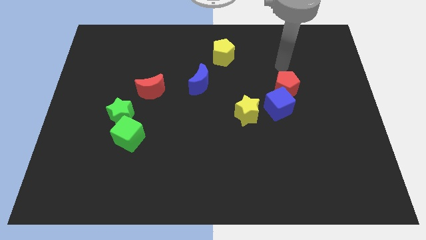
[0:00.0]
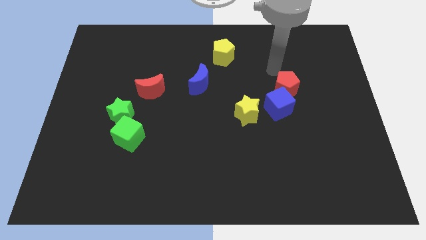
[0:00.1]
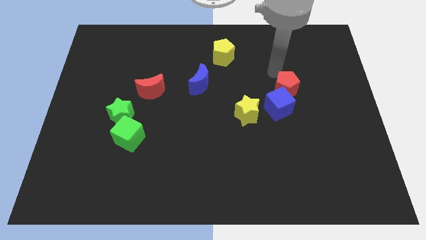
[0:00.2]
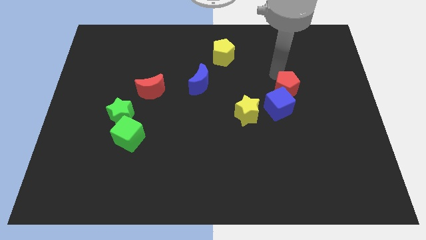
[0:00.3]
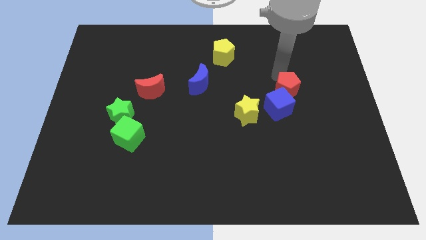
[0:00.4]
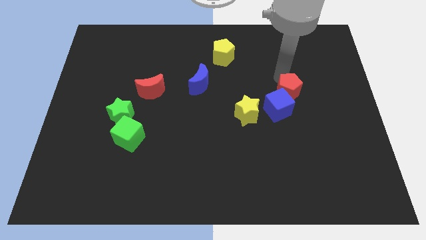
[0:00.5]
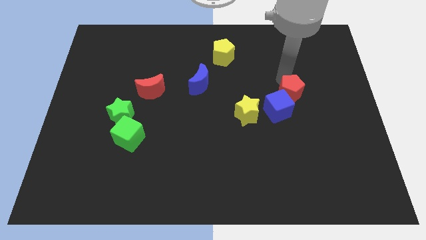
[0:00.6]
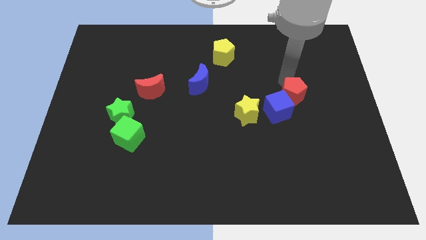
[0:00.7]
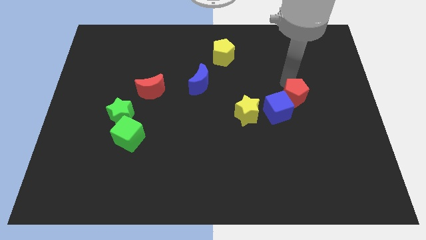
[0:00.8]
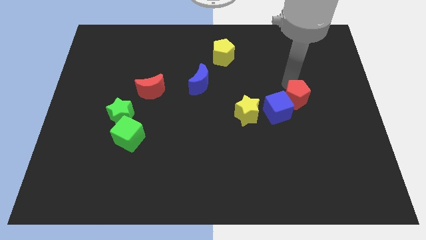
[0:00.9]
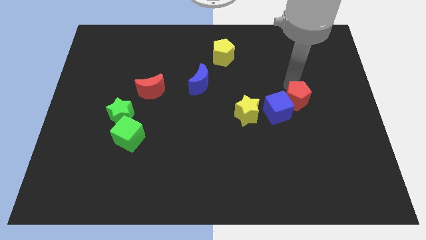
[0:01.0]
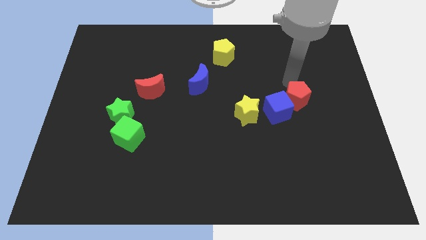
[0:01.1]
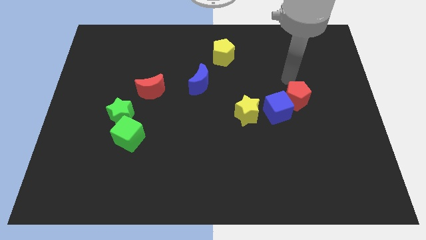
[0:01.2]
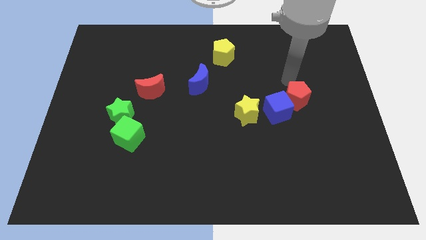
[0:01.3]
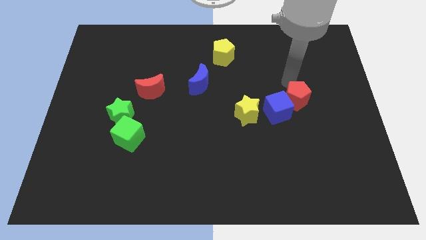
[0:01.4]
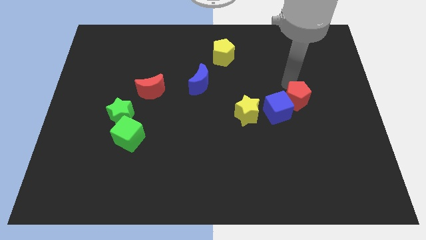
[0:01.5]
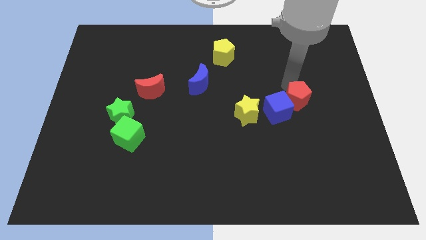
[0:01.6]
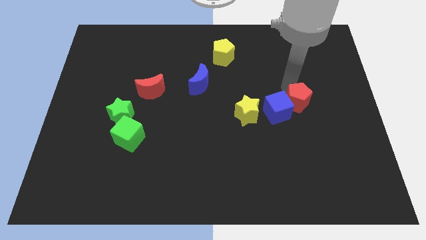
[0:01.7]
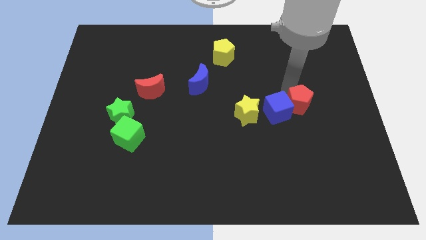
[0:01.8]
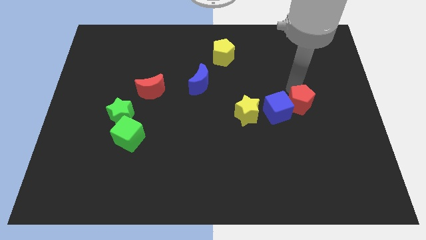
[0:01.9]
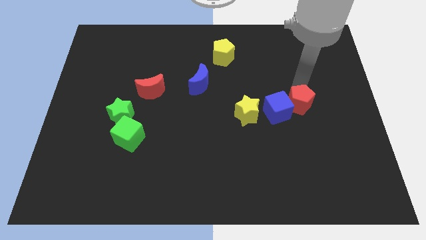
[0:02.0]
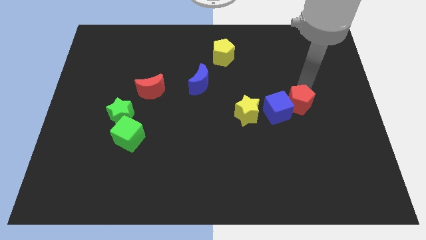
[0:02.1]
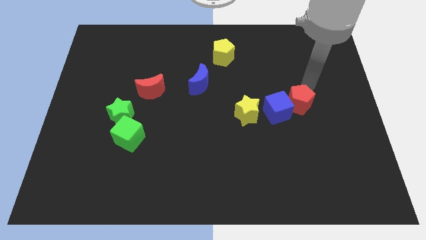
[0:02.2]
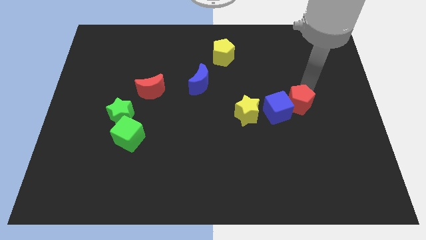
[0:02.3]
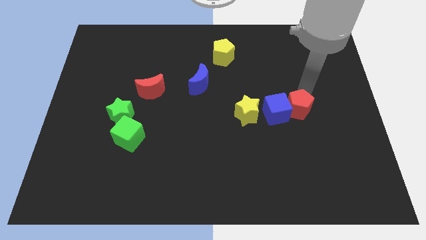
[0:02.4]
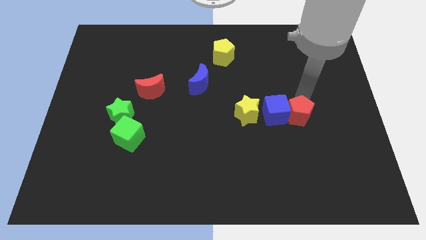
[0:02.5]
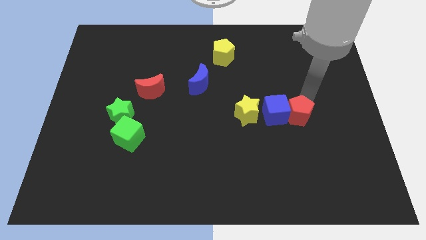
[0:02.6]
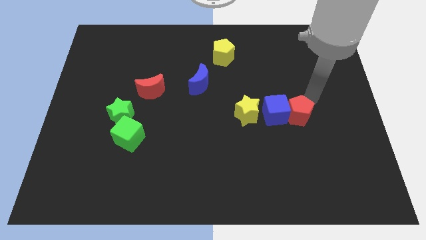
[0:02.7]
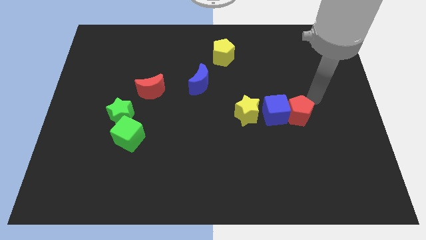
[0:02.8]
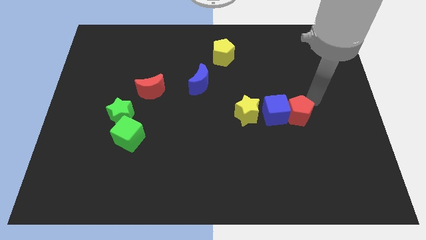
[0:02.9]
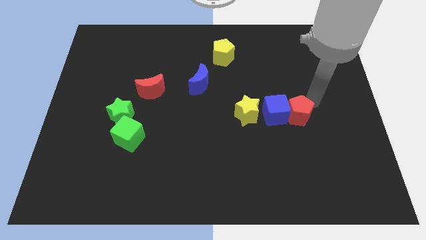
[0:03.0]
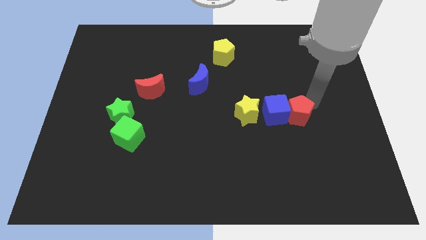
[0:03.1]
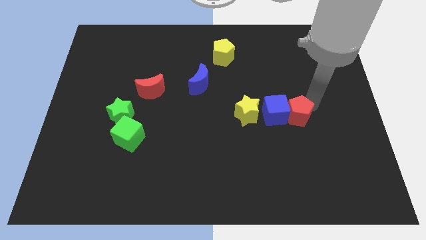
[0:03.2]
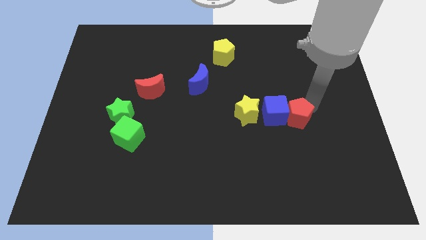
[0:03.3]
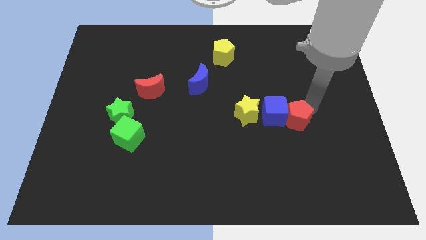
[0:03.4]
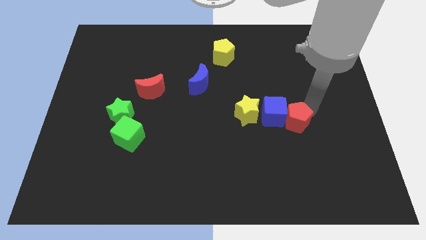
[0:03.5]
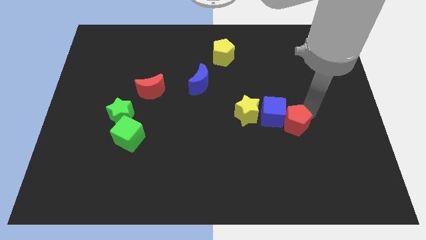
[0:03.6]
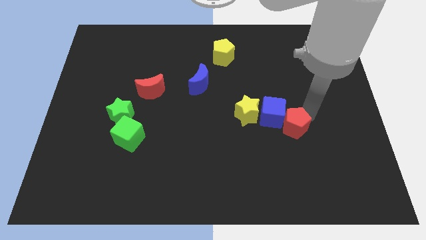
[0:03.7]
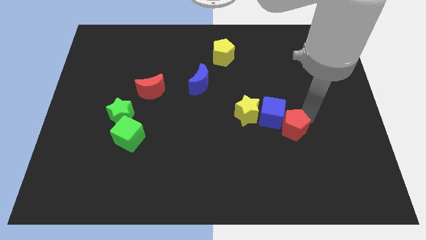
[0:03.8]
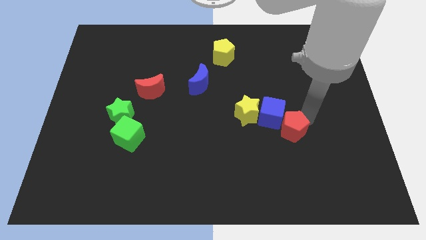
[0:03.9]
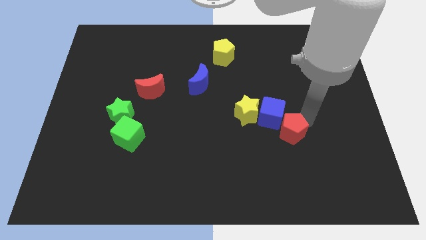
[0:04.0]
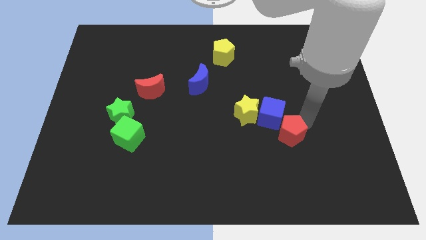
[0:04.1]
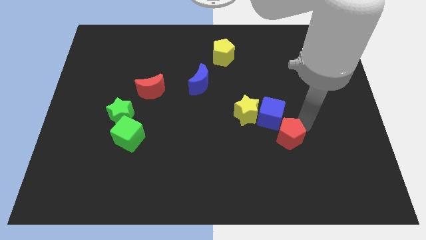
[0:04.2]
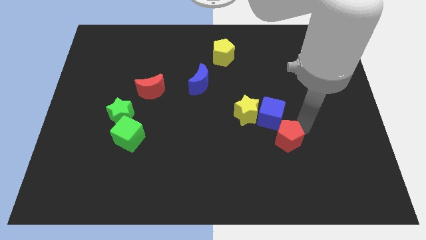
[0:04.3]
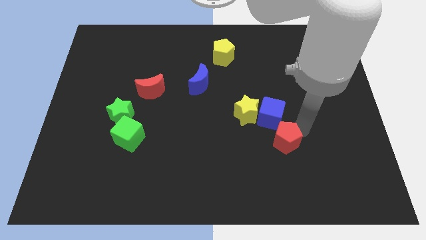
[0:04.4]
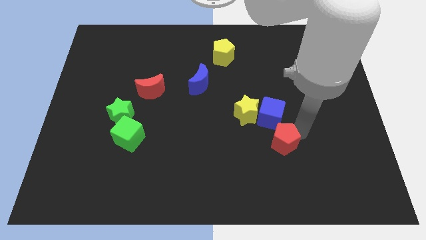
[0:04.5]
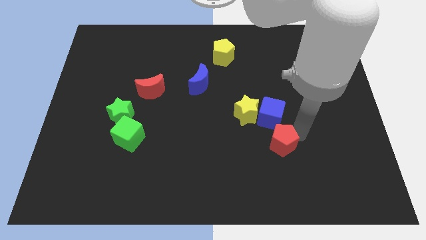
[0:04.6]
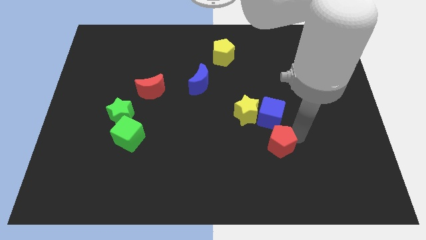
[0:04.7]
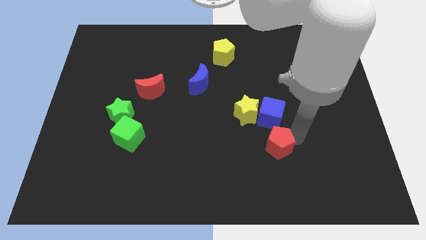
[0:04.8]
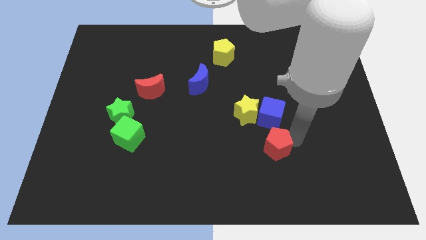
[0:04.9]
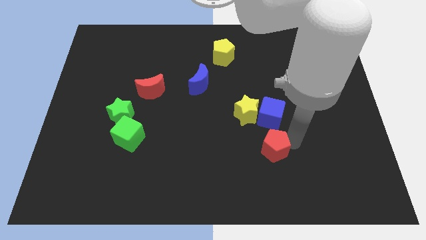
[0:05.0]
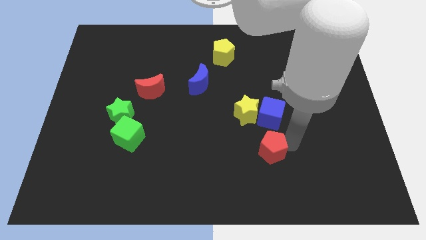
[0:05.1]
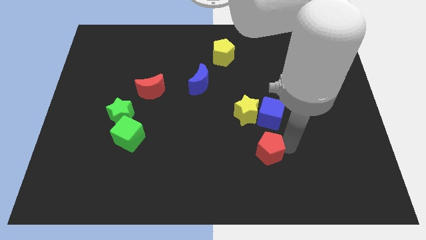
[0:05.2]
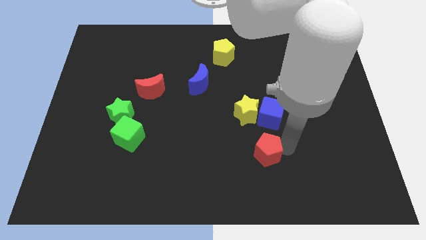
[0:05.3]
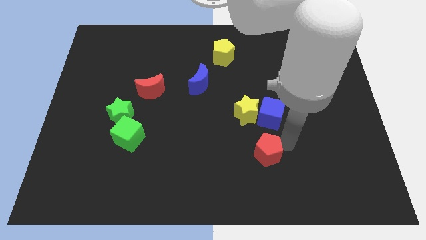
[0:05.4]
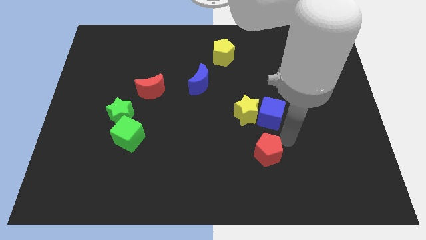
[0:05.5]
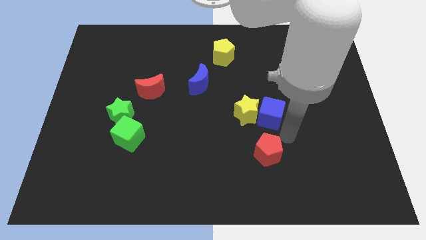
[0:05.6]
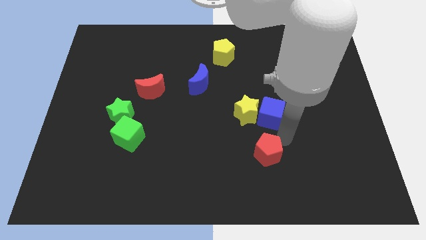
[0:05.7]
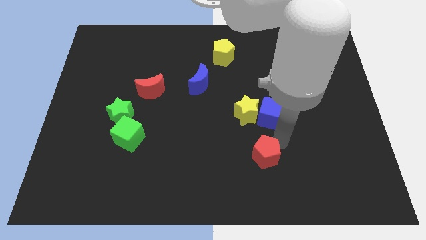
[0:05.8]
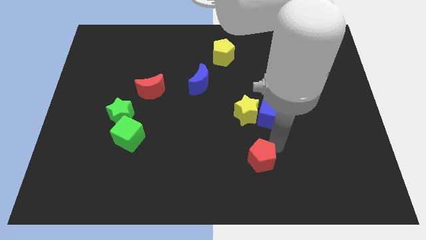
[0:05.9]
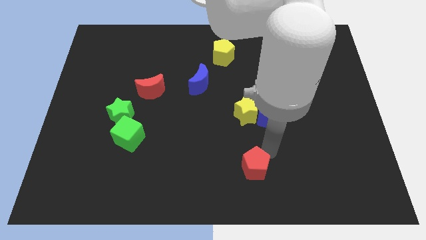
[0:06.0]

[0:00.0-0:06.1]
put the red pentagon to the bottom side

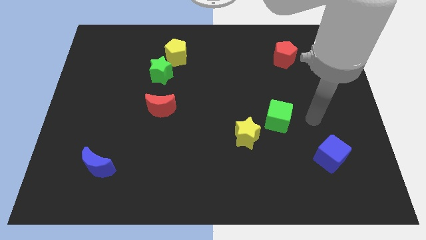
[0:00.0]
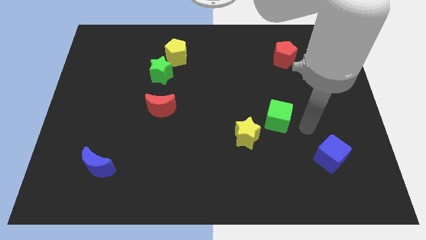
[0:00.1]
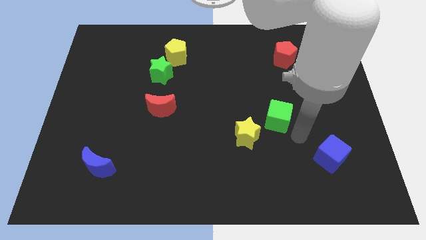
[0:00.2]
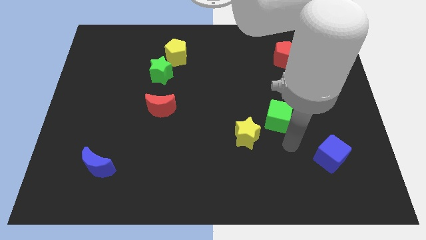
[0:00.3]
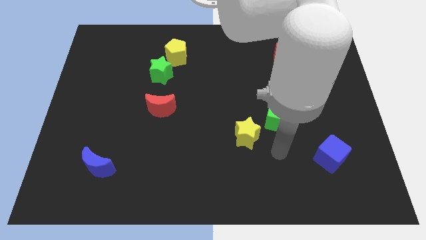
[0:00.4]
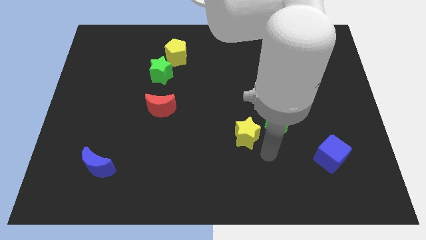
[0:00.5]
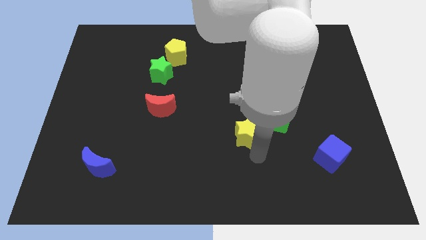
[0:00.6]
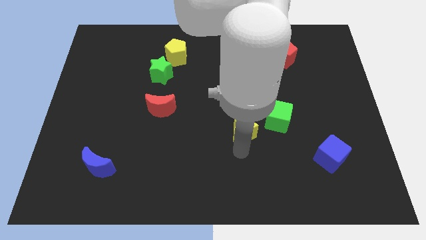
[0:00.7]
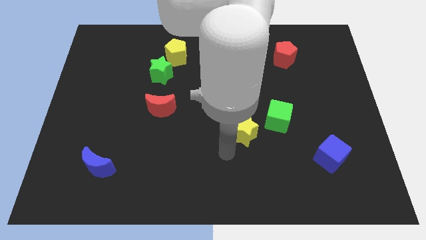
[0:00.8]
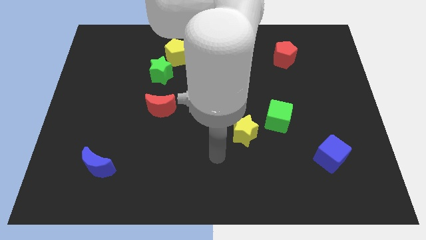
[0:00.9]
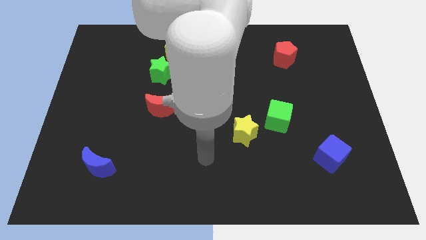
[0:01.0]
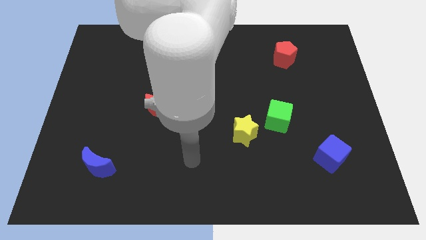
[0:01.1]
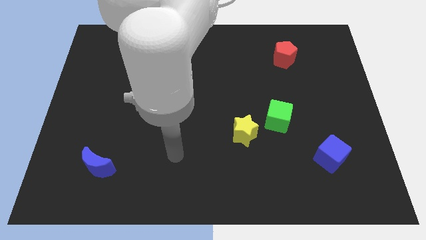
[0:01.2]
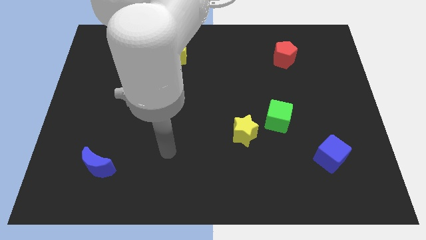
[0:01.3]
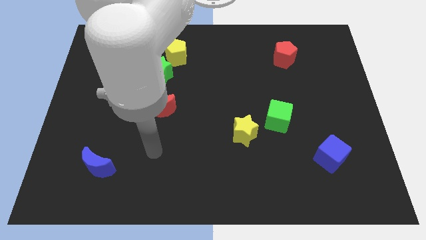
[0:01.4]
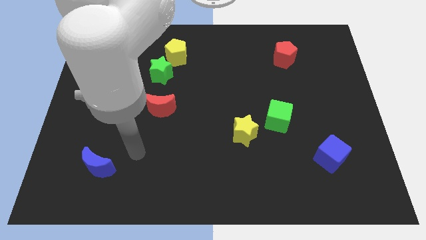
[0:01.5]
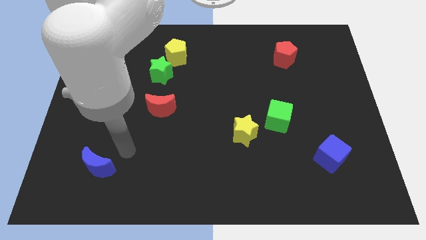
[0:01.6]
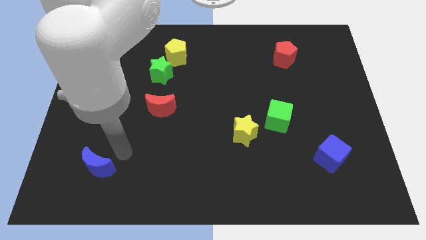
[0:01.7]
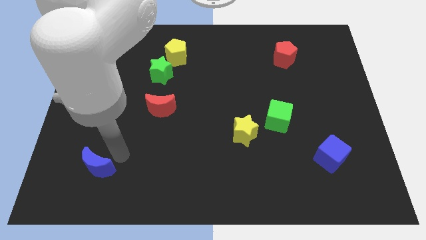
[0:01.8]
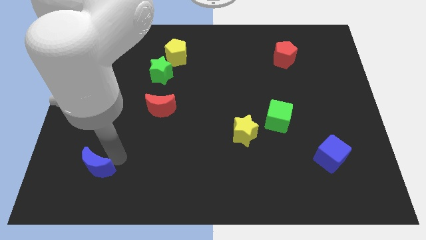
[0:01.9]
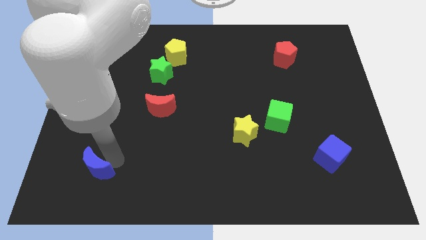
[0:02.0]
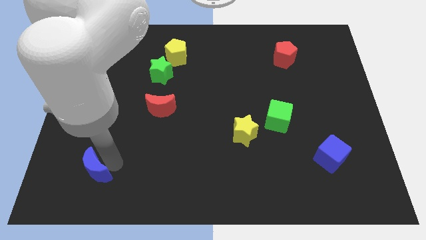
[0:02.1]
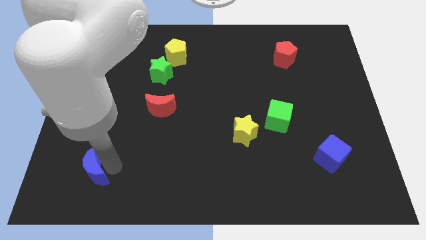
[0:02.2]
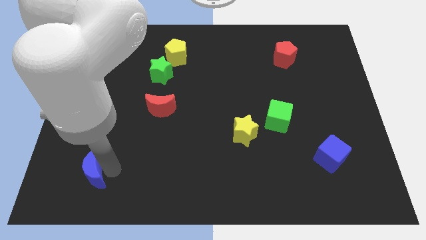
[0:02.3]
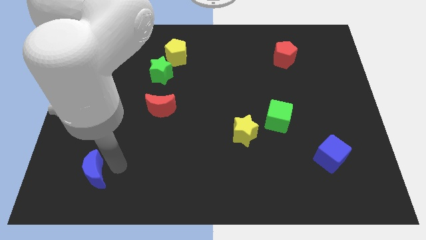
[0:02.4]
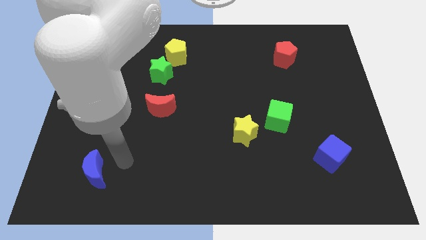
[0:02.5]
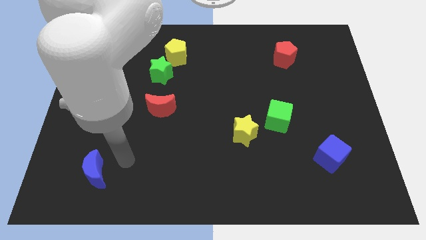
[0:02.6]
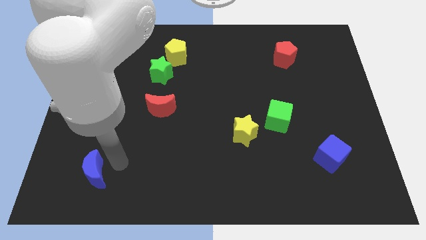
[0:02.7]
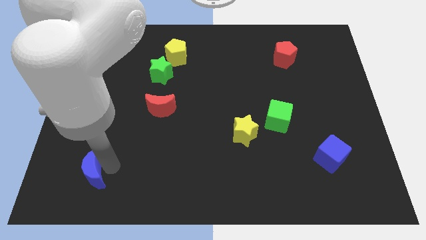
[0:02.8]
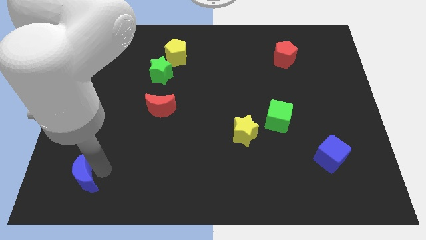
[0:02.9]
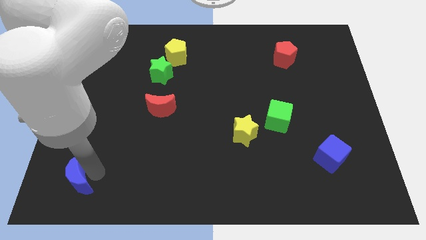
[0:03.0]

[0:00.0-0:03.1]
push the blue moon to the bottom left
